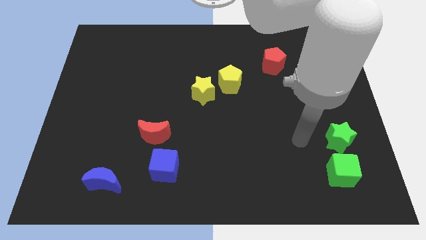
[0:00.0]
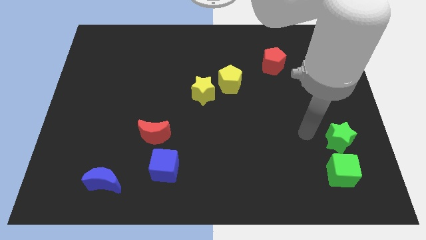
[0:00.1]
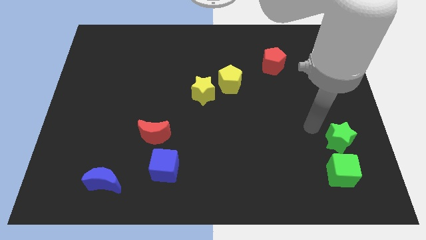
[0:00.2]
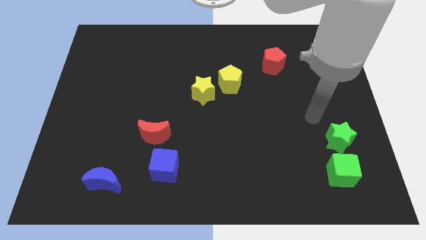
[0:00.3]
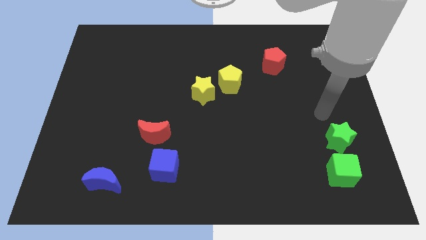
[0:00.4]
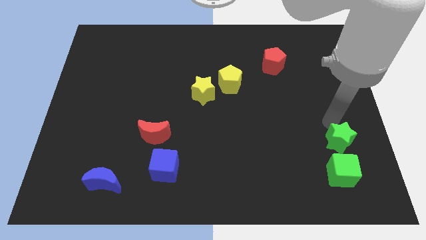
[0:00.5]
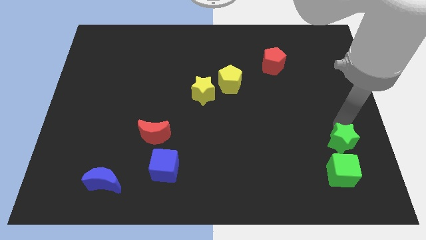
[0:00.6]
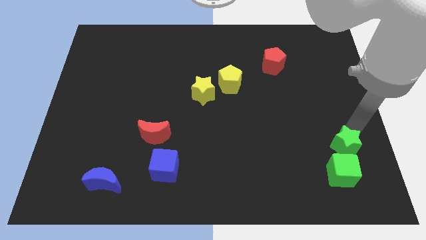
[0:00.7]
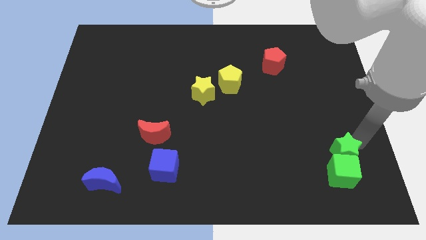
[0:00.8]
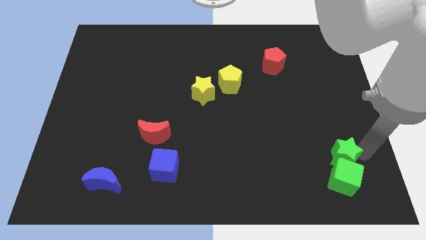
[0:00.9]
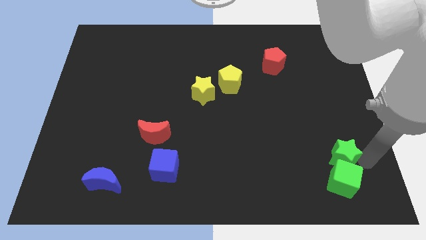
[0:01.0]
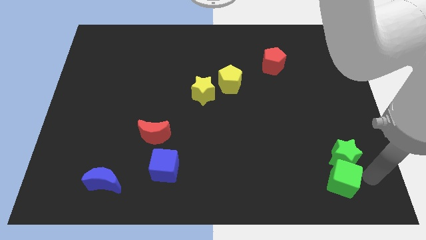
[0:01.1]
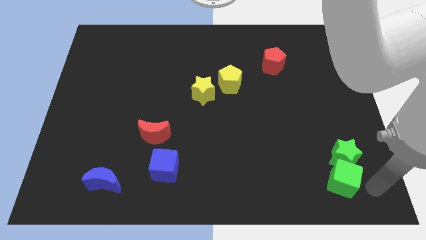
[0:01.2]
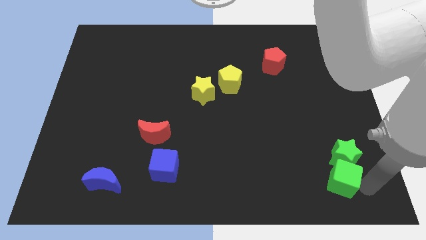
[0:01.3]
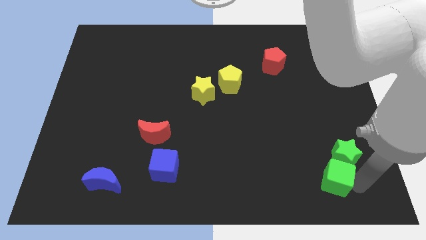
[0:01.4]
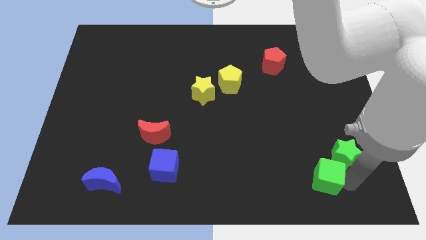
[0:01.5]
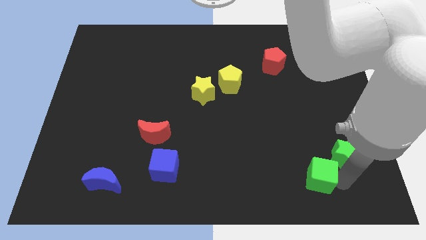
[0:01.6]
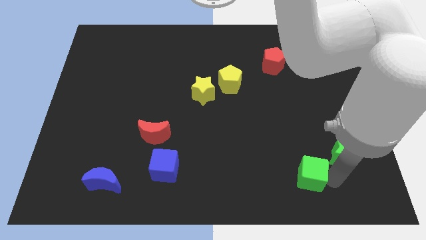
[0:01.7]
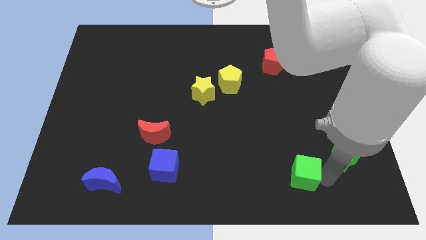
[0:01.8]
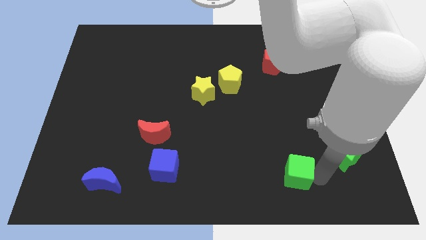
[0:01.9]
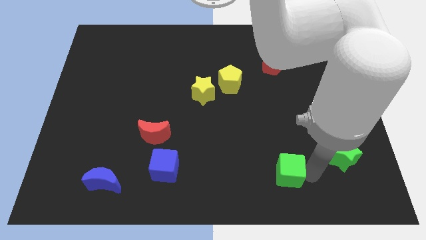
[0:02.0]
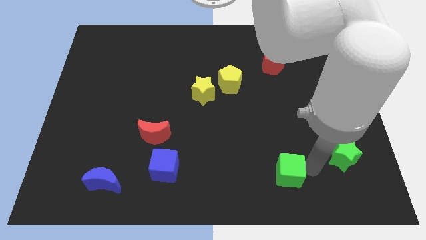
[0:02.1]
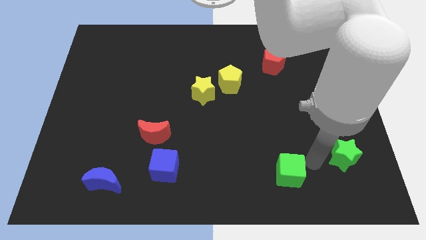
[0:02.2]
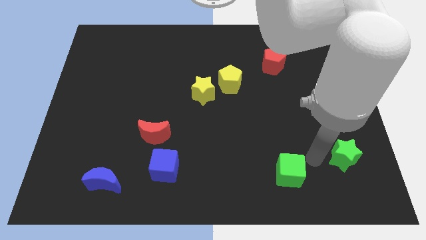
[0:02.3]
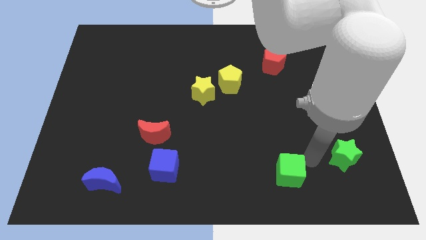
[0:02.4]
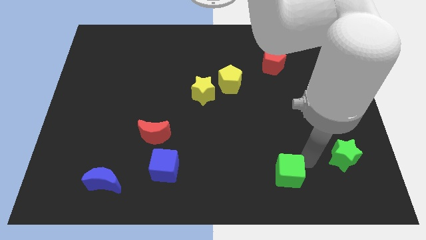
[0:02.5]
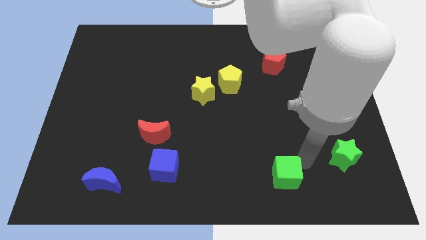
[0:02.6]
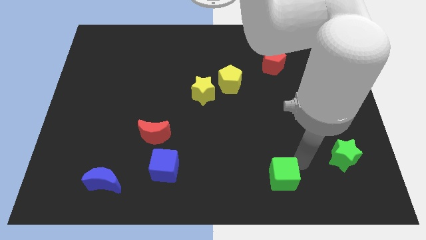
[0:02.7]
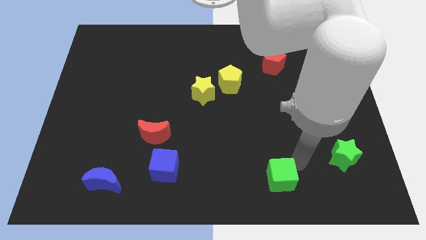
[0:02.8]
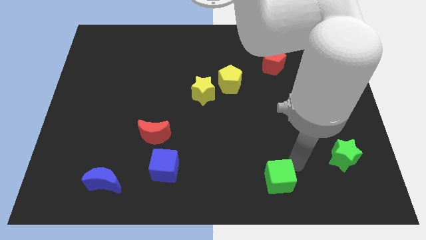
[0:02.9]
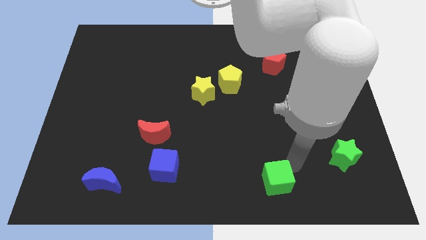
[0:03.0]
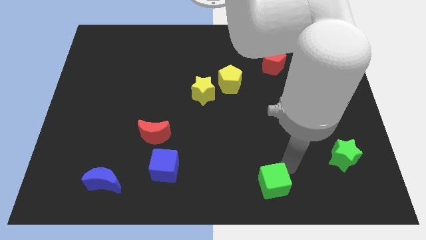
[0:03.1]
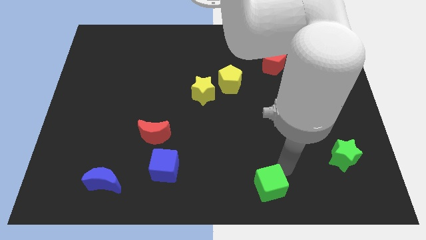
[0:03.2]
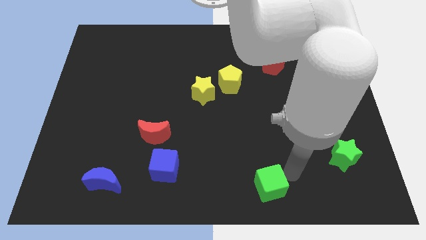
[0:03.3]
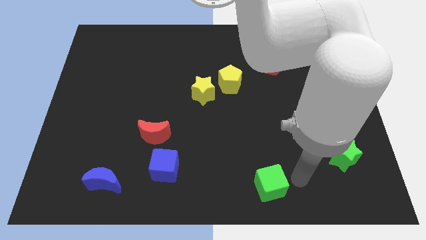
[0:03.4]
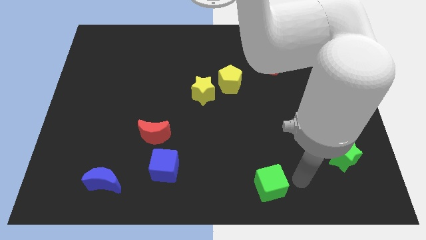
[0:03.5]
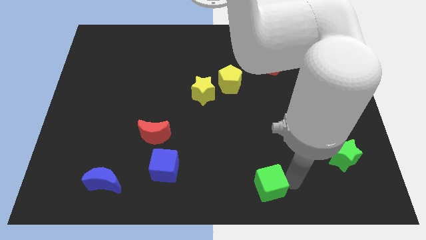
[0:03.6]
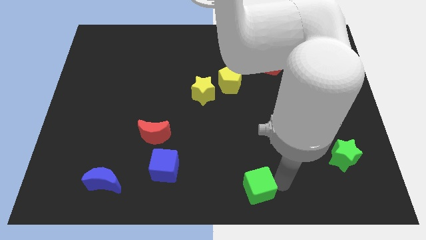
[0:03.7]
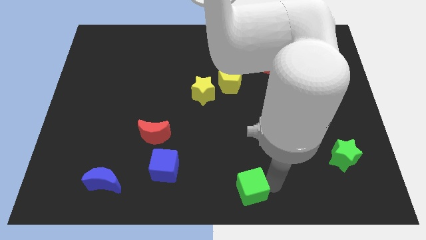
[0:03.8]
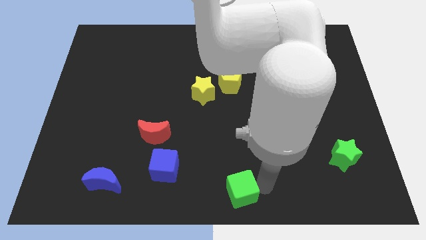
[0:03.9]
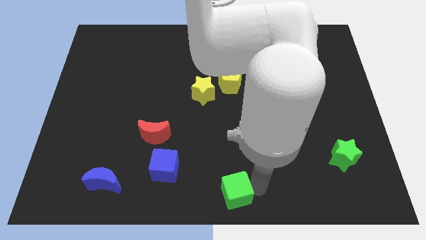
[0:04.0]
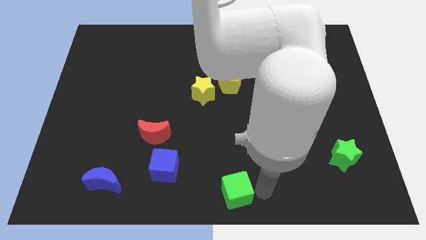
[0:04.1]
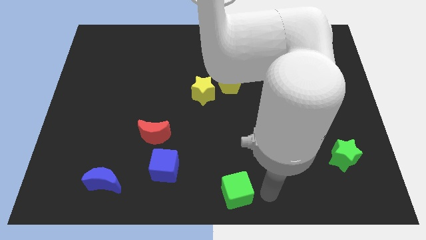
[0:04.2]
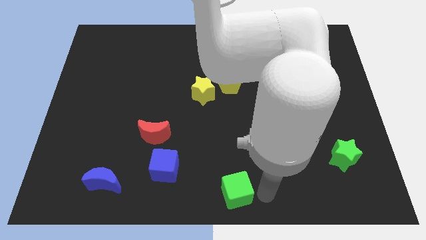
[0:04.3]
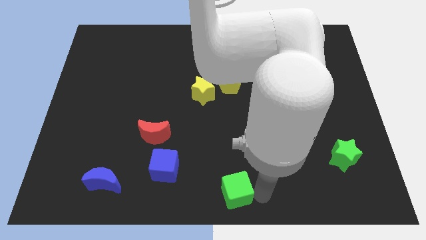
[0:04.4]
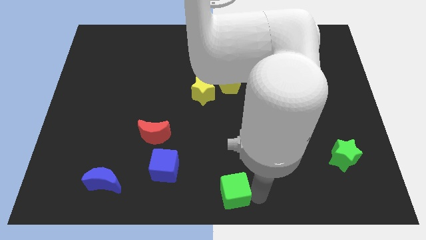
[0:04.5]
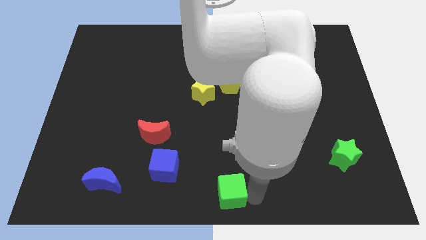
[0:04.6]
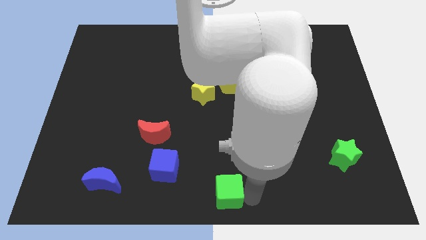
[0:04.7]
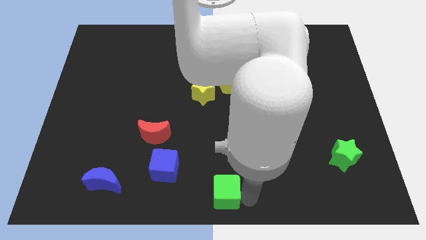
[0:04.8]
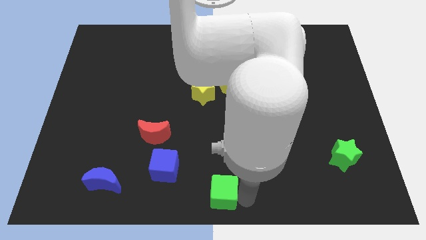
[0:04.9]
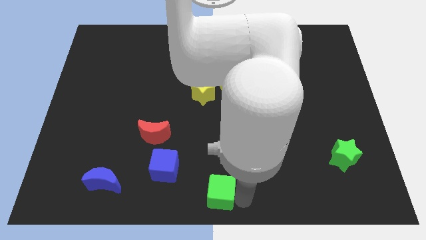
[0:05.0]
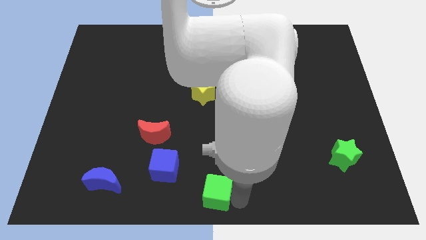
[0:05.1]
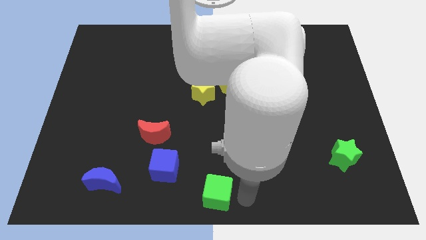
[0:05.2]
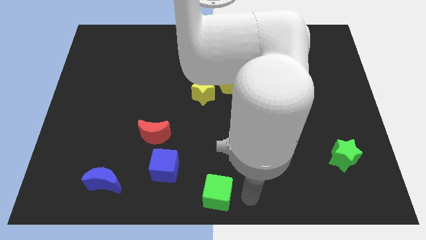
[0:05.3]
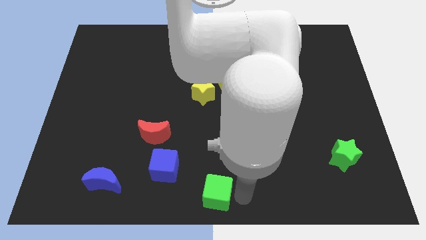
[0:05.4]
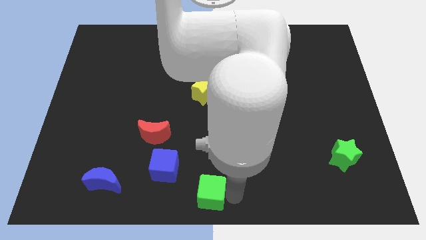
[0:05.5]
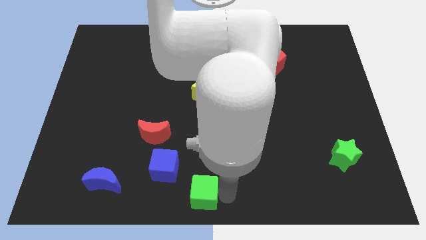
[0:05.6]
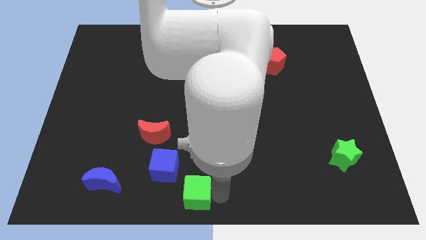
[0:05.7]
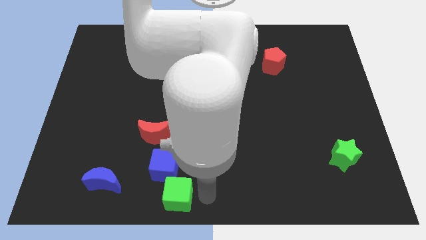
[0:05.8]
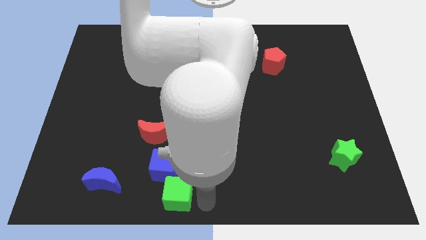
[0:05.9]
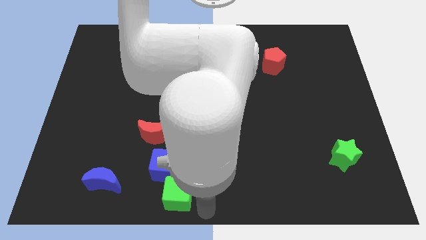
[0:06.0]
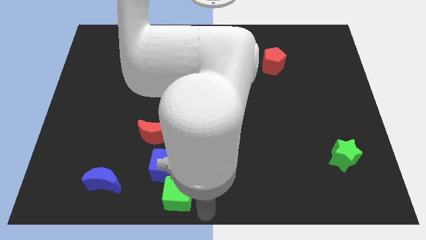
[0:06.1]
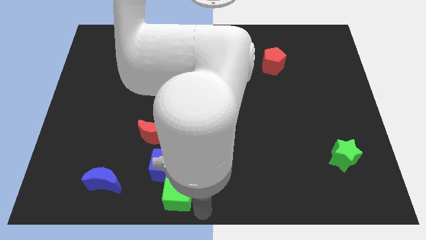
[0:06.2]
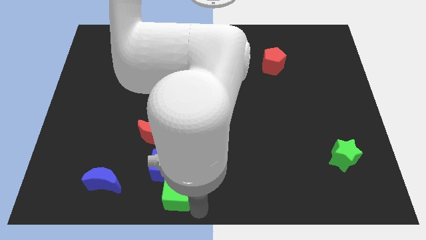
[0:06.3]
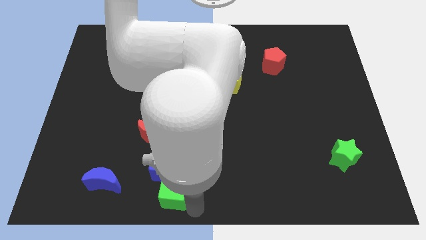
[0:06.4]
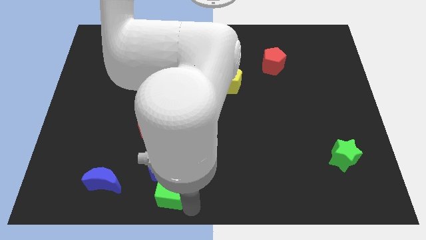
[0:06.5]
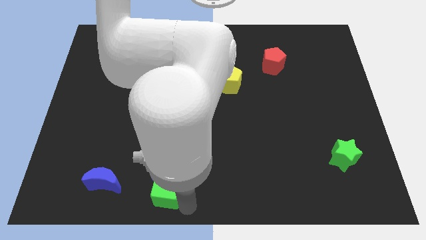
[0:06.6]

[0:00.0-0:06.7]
push the green cube below the red moon
